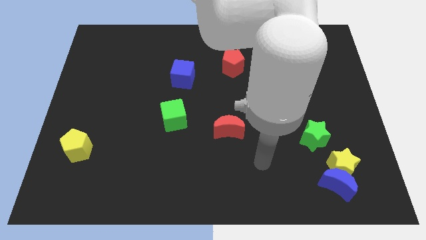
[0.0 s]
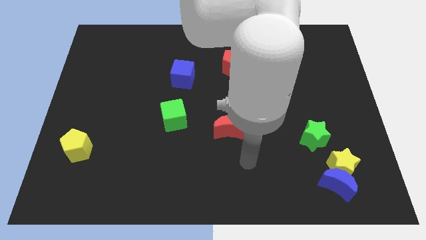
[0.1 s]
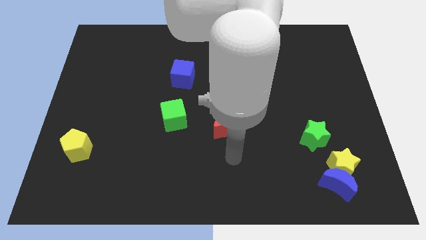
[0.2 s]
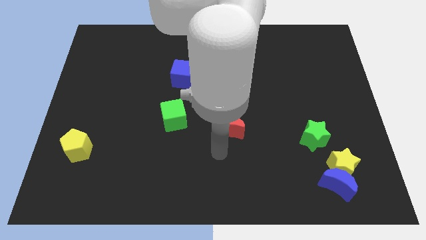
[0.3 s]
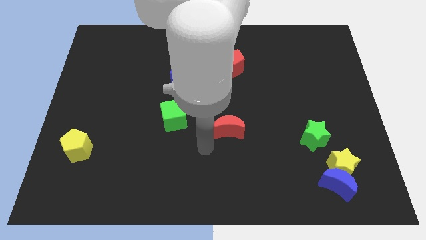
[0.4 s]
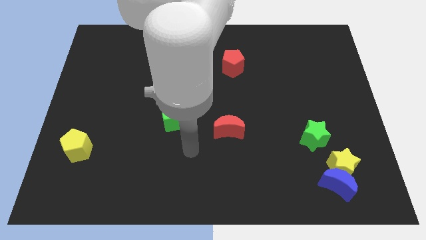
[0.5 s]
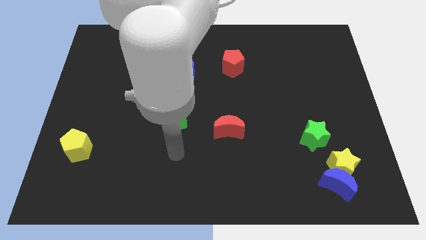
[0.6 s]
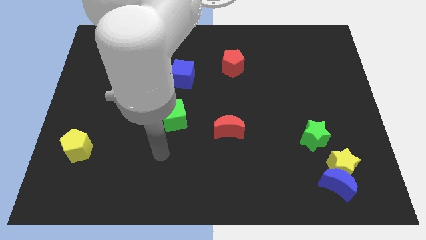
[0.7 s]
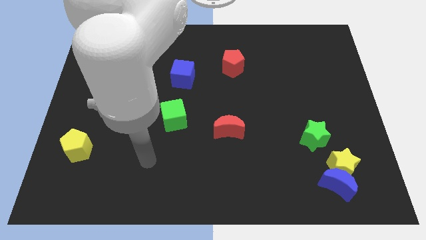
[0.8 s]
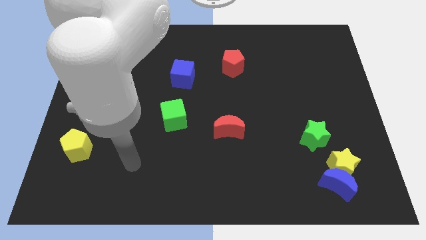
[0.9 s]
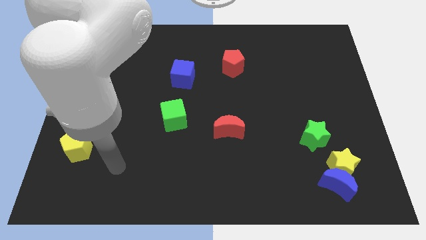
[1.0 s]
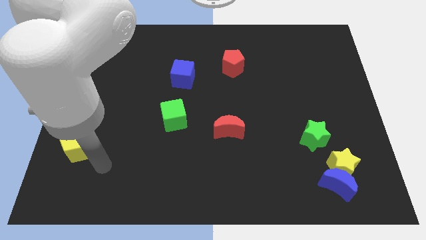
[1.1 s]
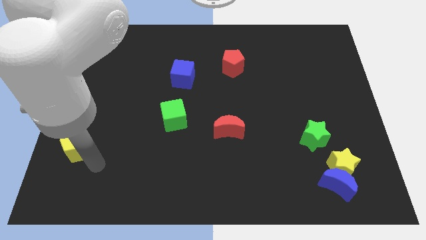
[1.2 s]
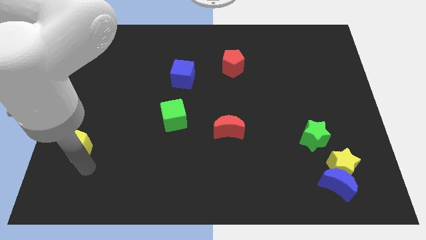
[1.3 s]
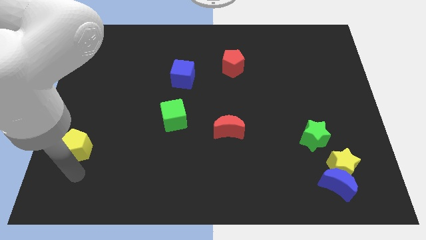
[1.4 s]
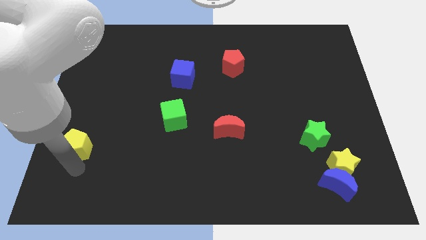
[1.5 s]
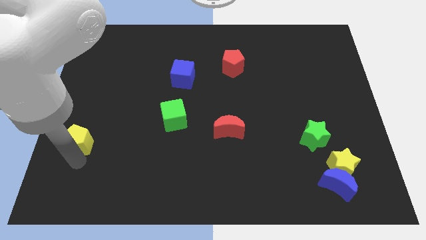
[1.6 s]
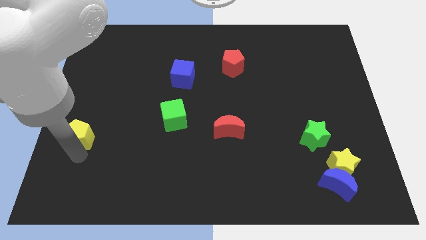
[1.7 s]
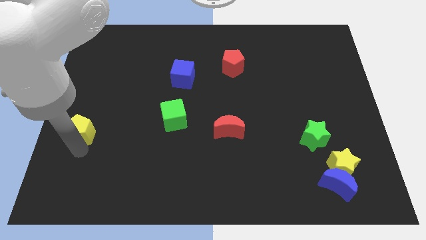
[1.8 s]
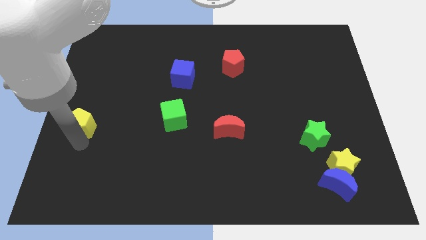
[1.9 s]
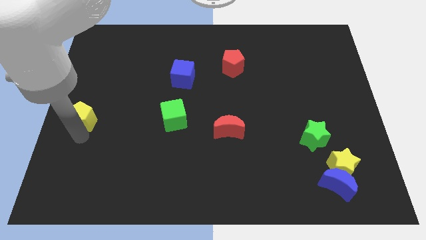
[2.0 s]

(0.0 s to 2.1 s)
push the yellow pentagon upwards a bit

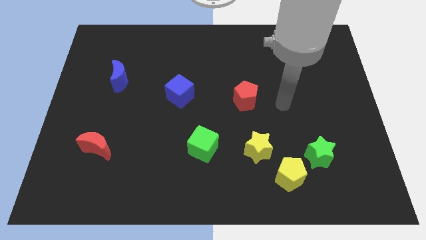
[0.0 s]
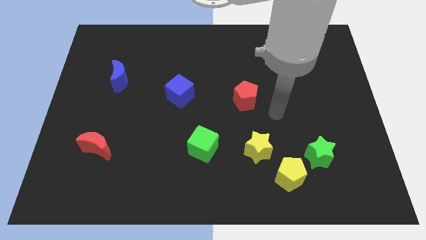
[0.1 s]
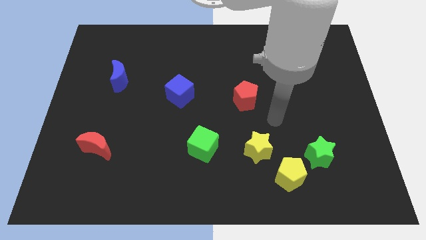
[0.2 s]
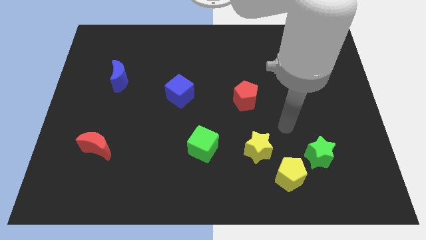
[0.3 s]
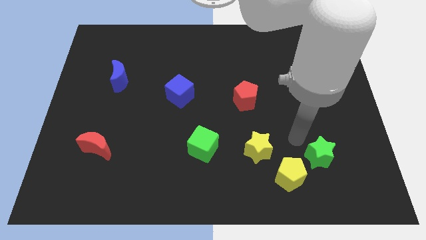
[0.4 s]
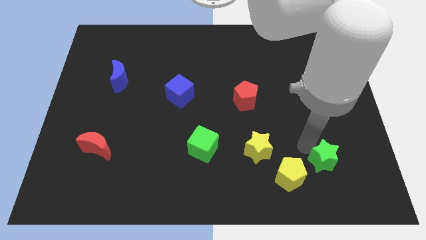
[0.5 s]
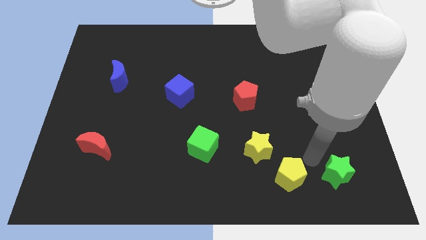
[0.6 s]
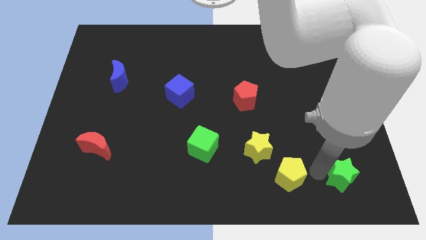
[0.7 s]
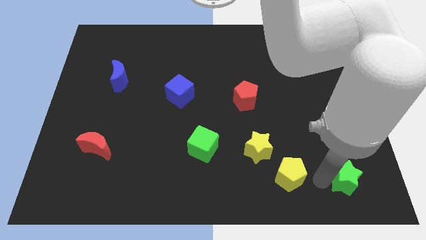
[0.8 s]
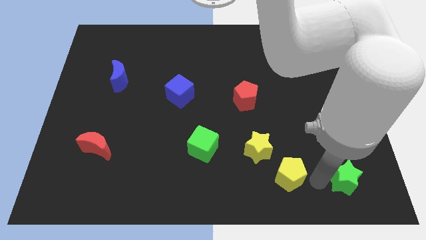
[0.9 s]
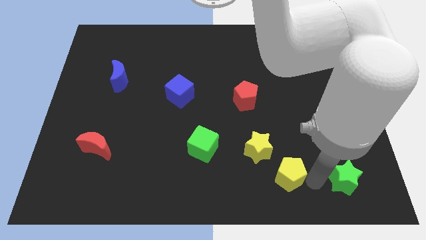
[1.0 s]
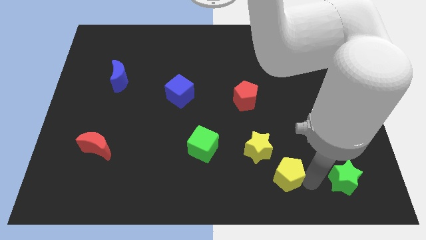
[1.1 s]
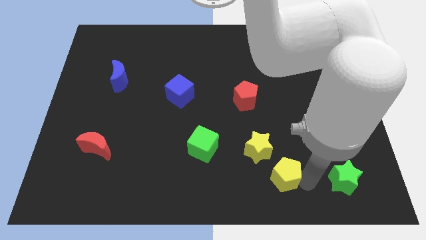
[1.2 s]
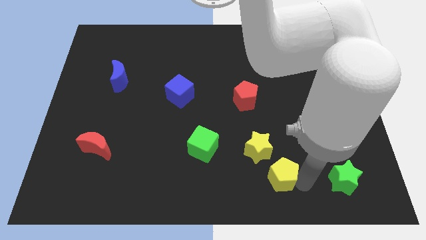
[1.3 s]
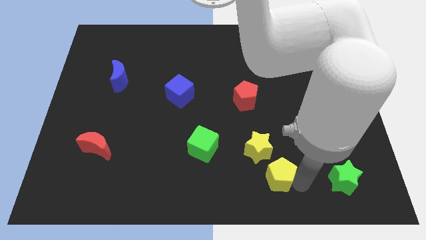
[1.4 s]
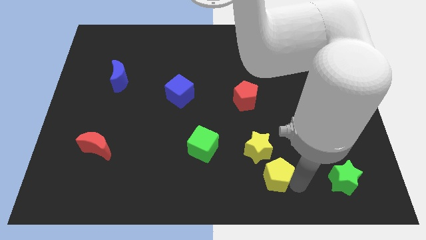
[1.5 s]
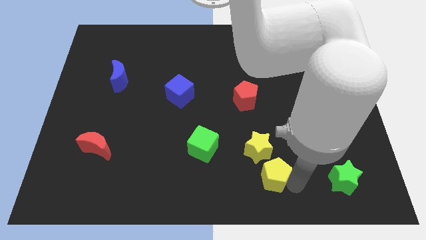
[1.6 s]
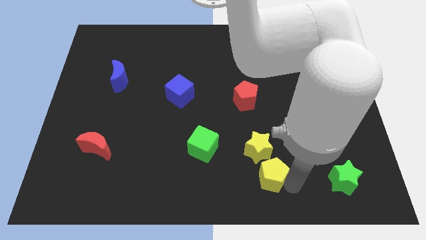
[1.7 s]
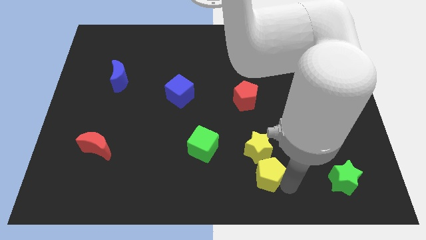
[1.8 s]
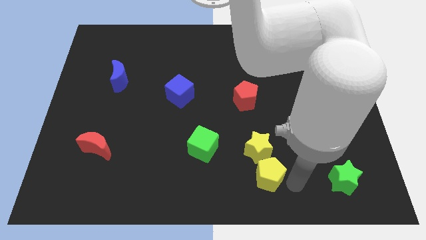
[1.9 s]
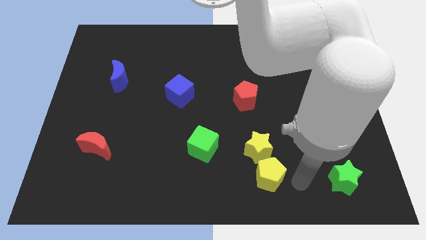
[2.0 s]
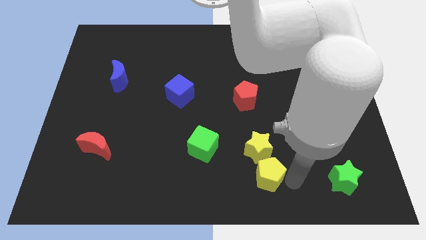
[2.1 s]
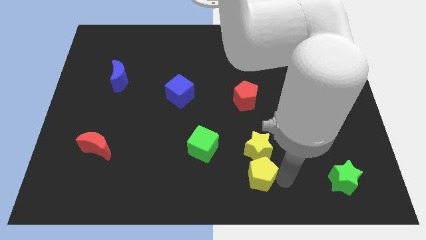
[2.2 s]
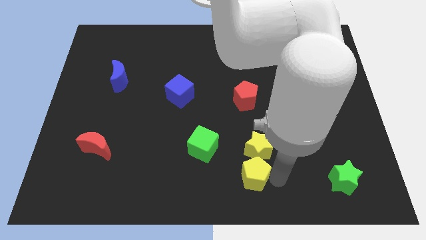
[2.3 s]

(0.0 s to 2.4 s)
slightly slide the yellow pentagon to the left

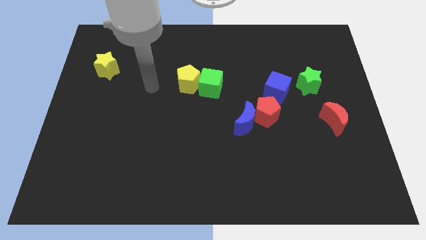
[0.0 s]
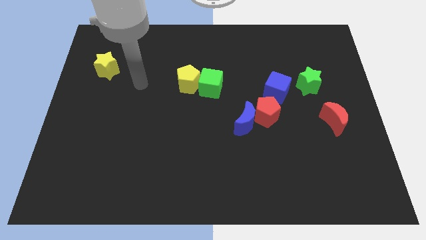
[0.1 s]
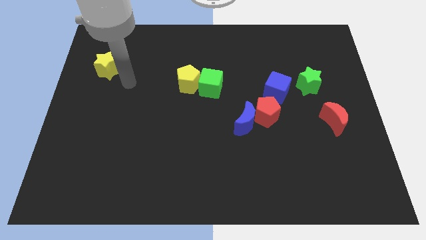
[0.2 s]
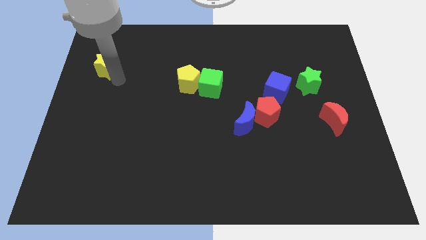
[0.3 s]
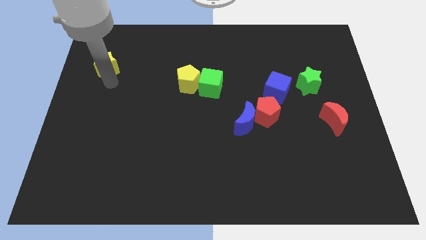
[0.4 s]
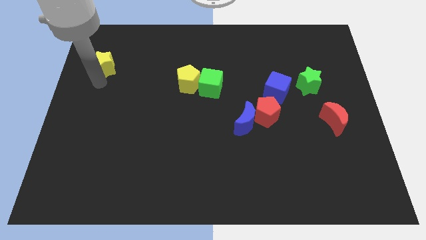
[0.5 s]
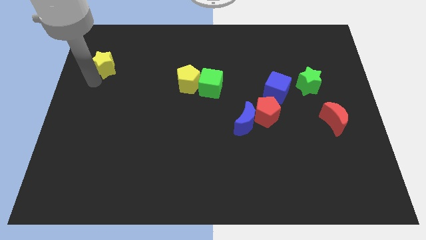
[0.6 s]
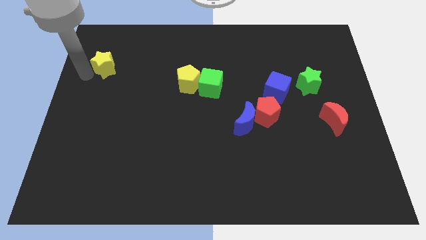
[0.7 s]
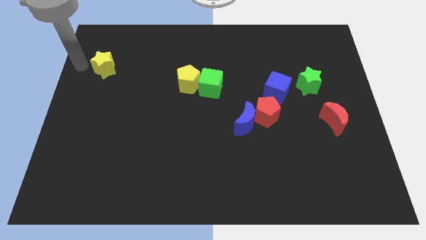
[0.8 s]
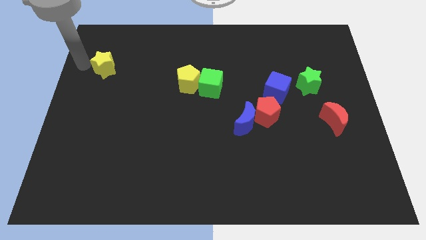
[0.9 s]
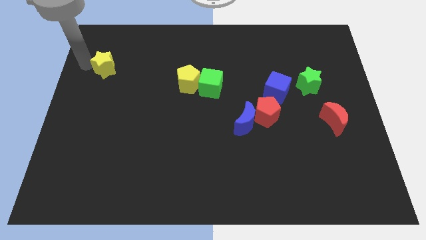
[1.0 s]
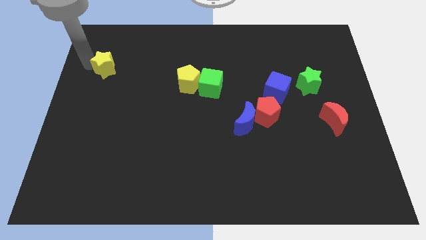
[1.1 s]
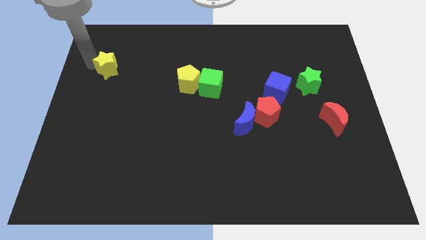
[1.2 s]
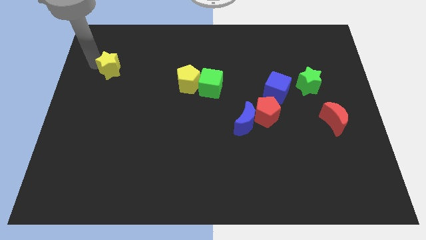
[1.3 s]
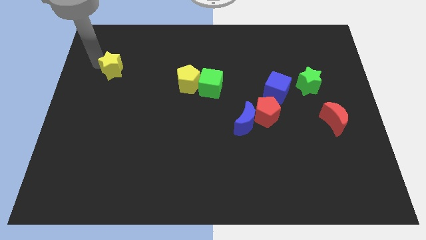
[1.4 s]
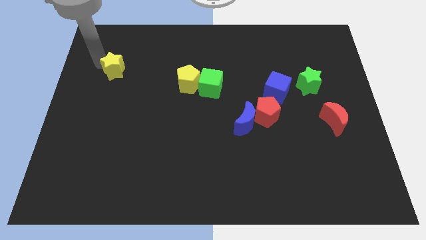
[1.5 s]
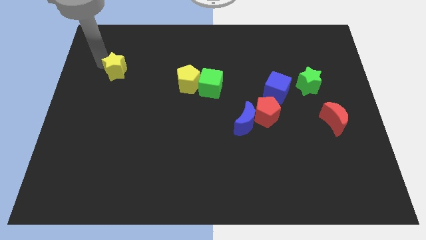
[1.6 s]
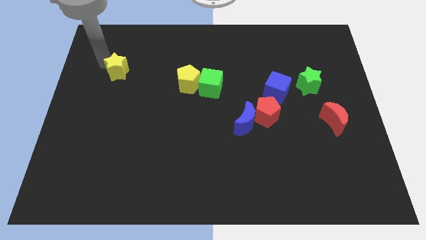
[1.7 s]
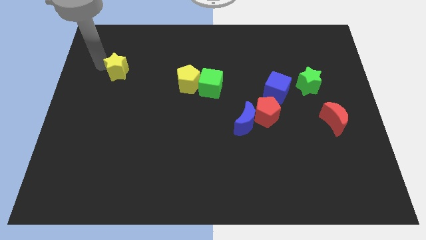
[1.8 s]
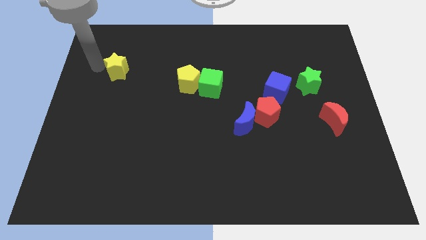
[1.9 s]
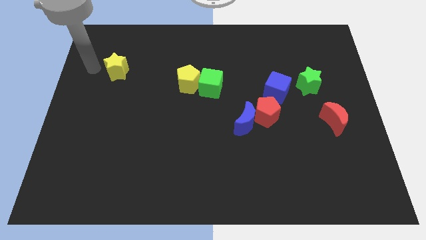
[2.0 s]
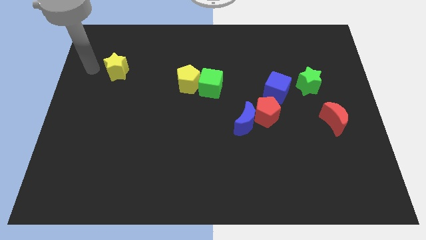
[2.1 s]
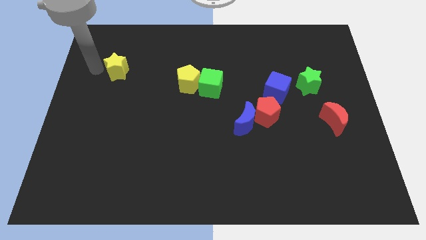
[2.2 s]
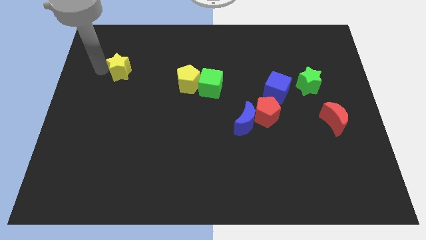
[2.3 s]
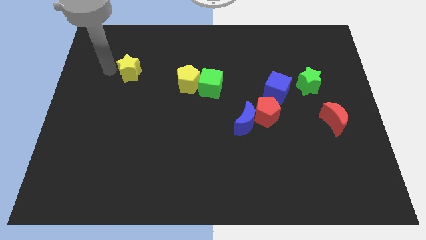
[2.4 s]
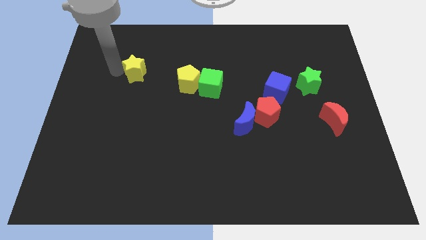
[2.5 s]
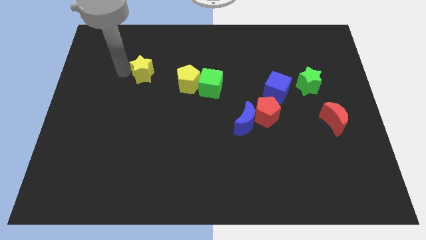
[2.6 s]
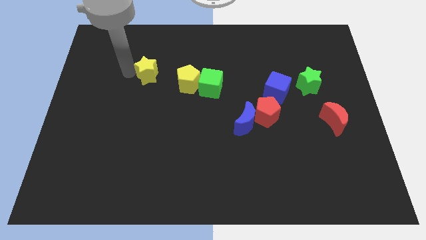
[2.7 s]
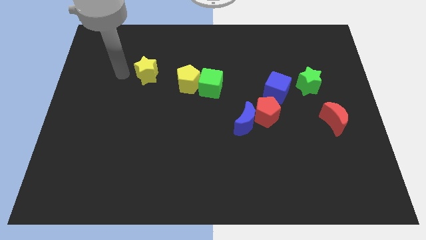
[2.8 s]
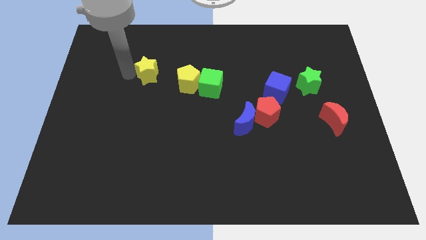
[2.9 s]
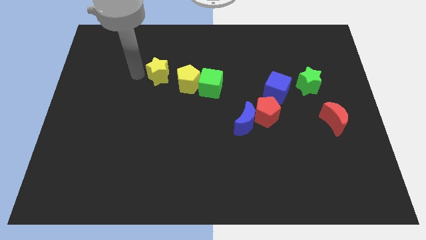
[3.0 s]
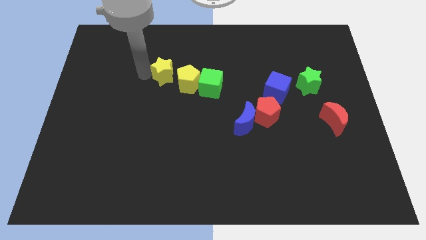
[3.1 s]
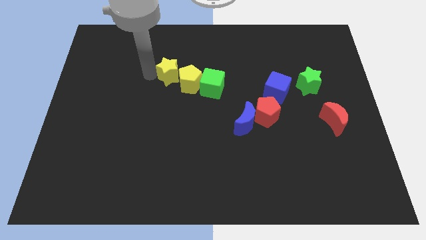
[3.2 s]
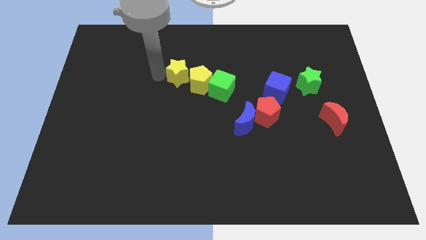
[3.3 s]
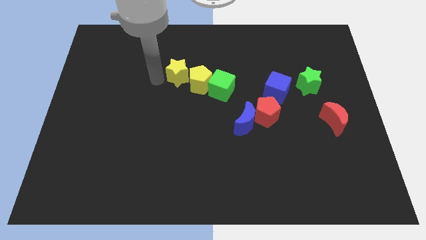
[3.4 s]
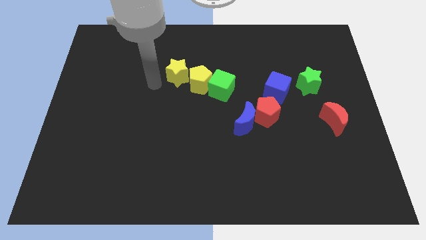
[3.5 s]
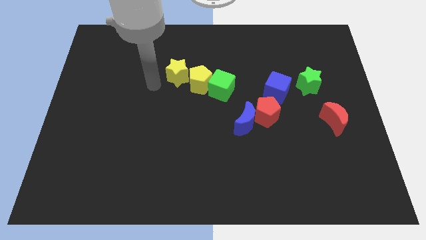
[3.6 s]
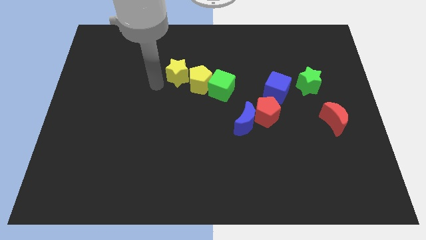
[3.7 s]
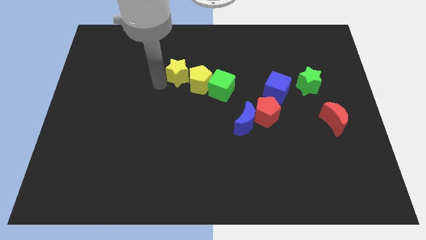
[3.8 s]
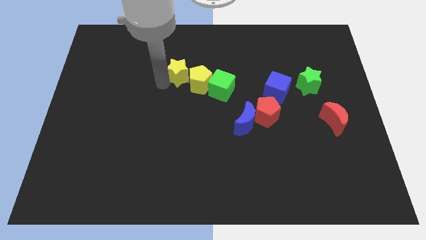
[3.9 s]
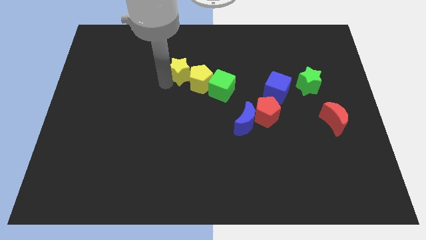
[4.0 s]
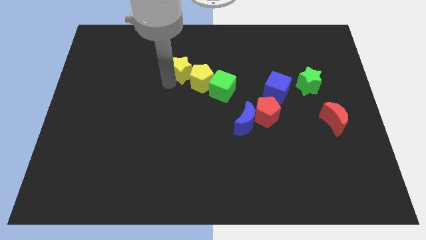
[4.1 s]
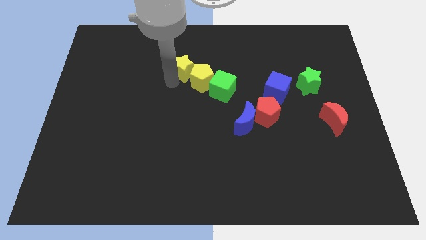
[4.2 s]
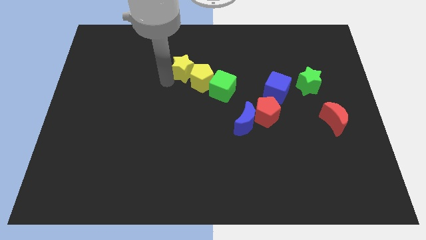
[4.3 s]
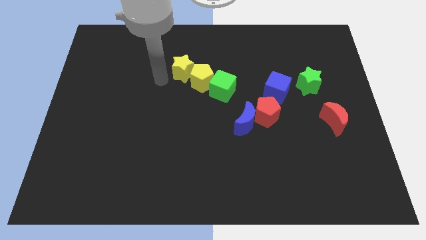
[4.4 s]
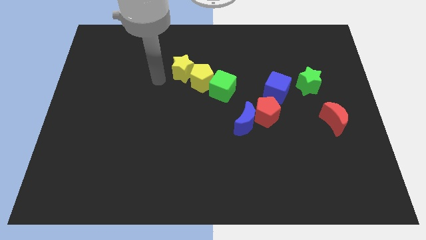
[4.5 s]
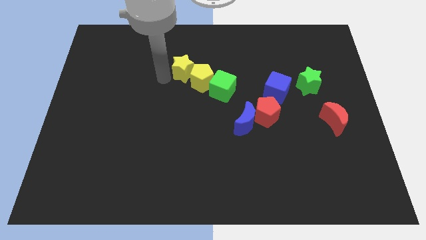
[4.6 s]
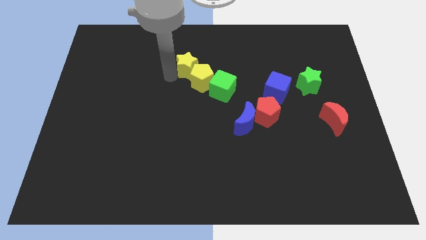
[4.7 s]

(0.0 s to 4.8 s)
push the yellow star to the right
